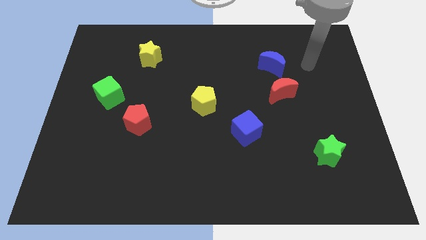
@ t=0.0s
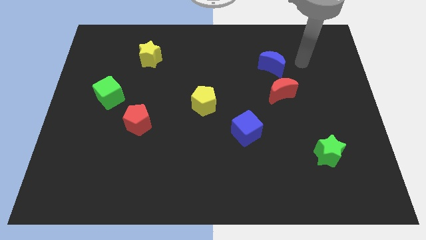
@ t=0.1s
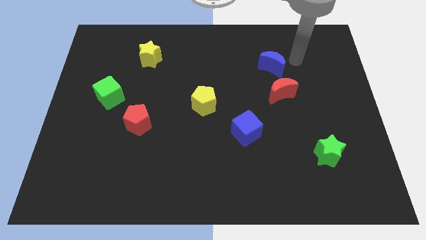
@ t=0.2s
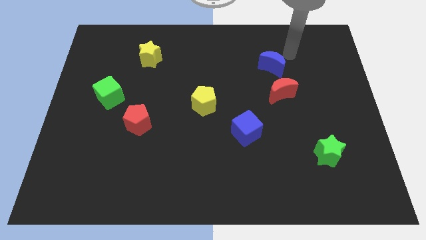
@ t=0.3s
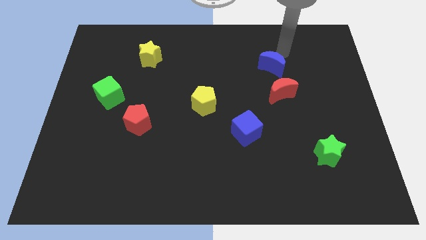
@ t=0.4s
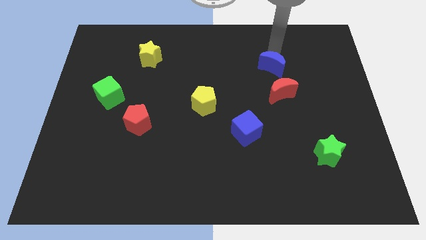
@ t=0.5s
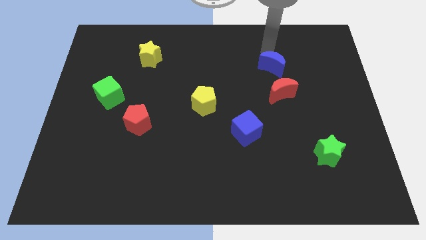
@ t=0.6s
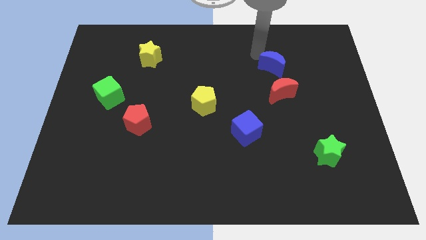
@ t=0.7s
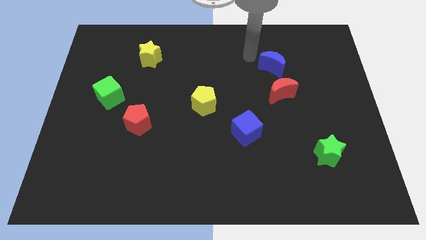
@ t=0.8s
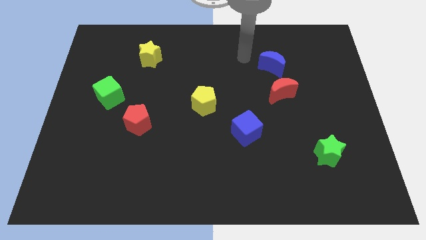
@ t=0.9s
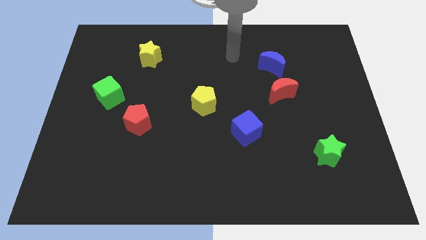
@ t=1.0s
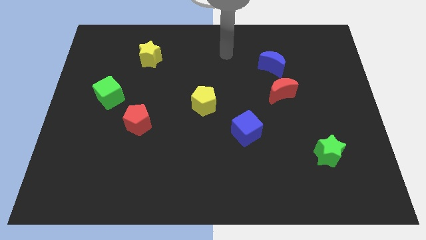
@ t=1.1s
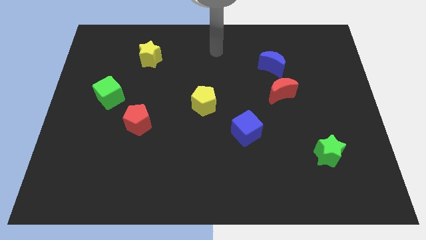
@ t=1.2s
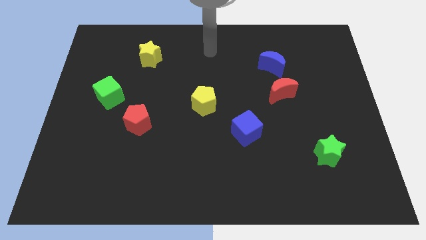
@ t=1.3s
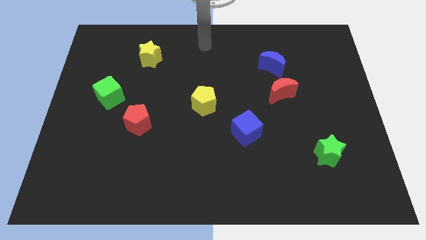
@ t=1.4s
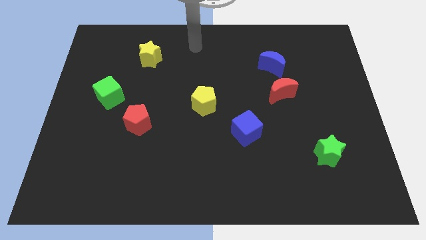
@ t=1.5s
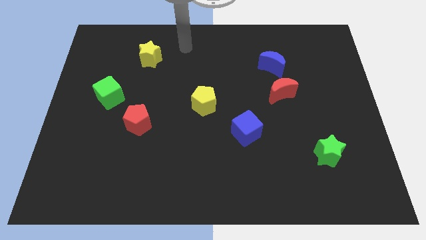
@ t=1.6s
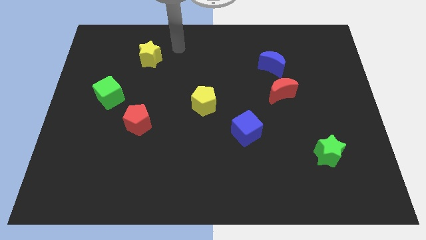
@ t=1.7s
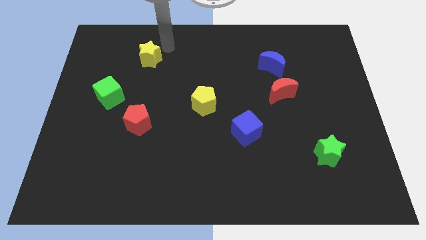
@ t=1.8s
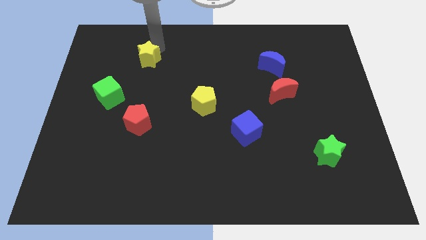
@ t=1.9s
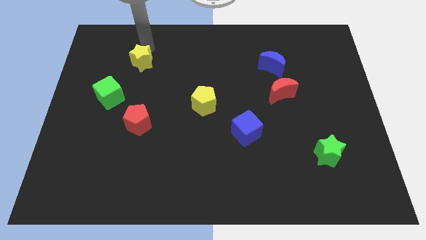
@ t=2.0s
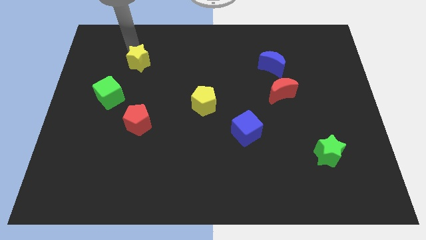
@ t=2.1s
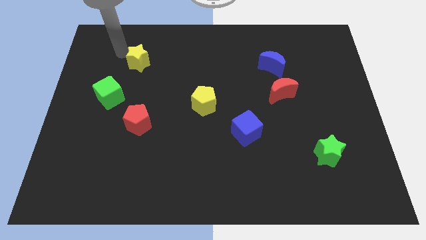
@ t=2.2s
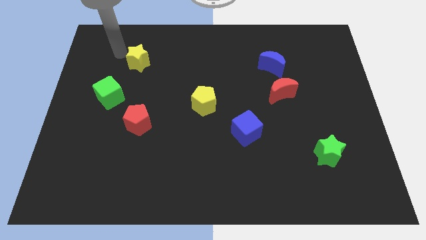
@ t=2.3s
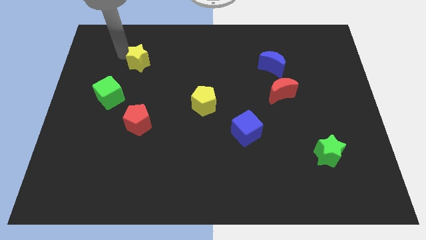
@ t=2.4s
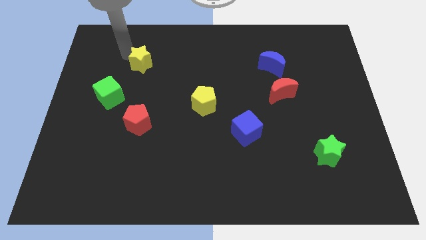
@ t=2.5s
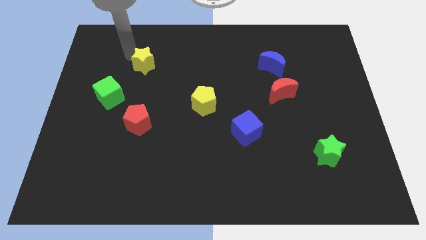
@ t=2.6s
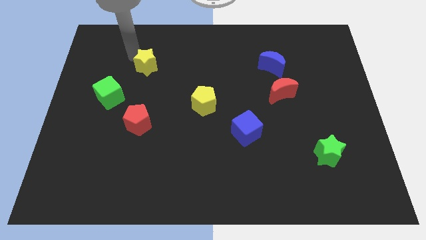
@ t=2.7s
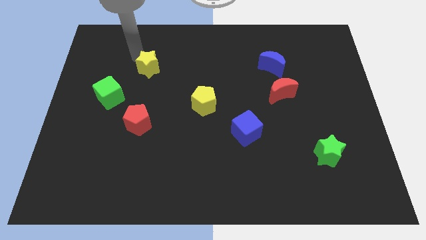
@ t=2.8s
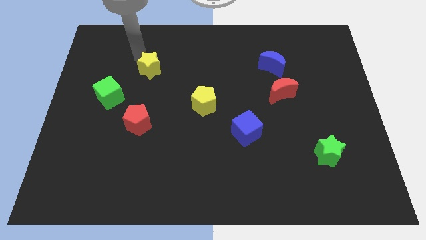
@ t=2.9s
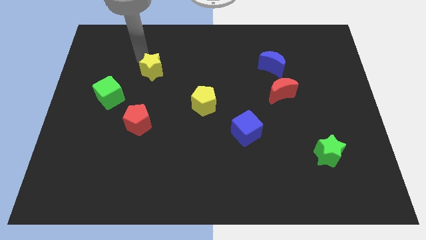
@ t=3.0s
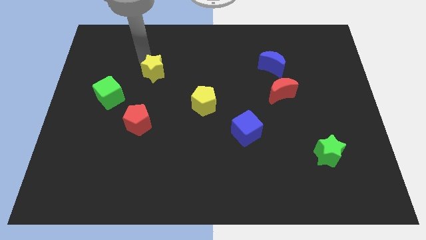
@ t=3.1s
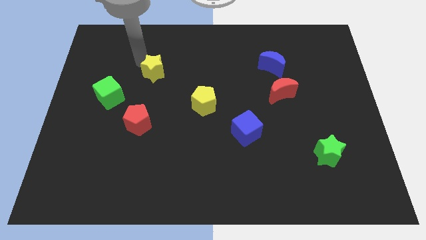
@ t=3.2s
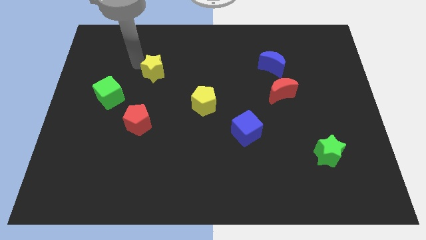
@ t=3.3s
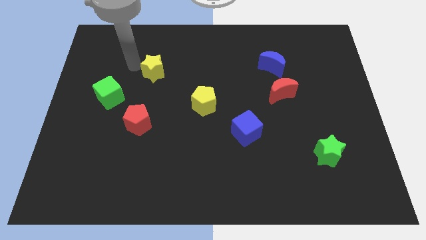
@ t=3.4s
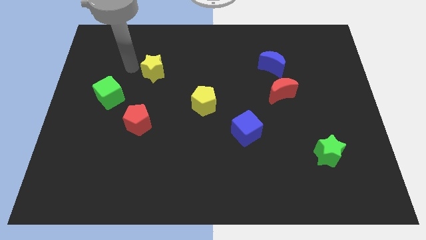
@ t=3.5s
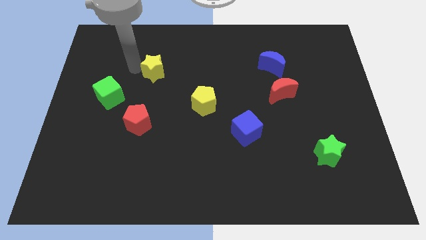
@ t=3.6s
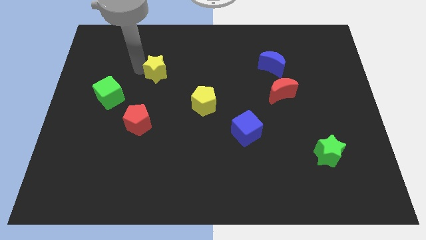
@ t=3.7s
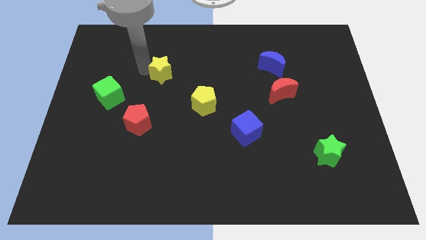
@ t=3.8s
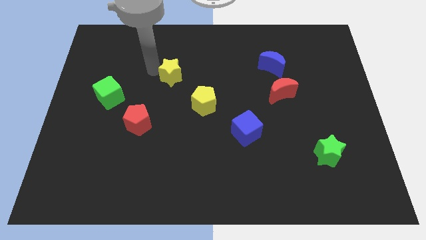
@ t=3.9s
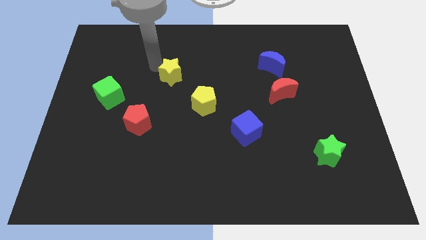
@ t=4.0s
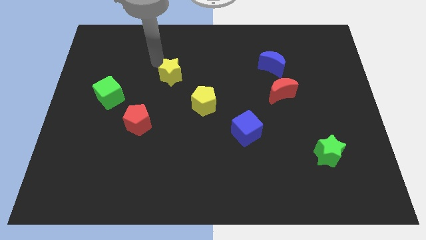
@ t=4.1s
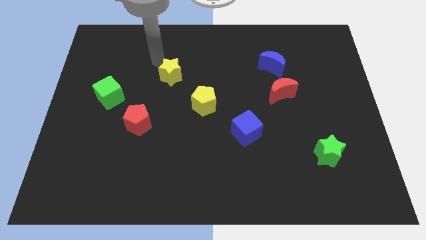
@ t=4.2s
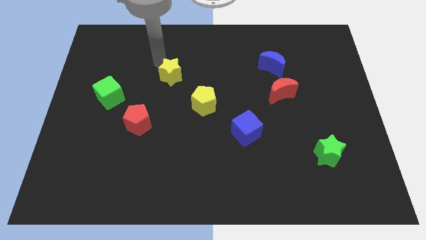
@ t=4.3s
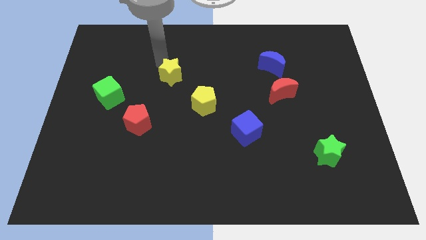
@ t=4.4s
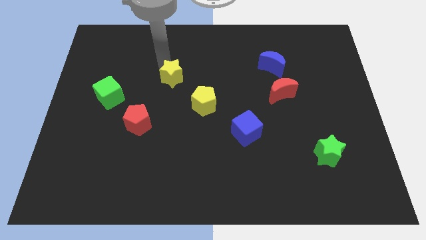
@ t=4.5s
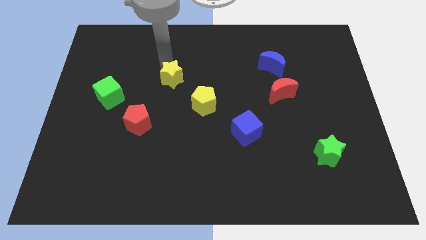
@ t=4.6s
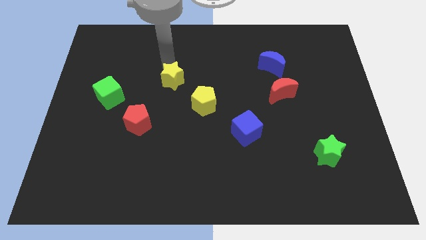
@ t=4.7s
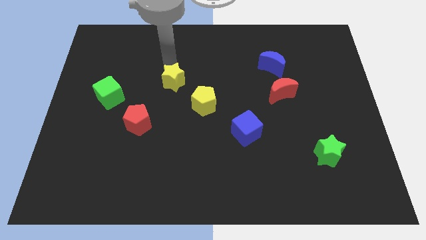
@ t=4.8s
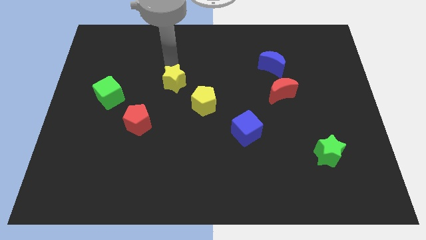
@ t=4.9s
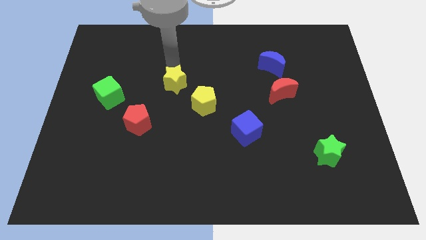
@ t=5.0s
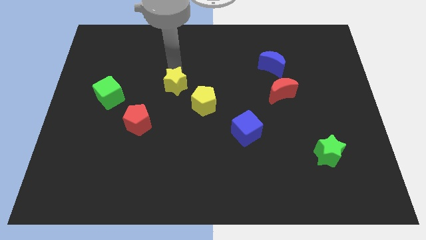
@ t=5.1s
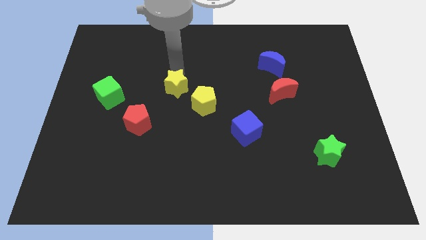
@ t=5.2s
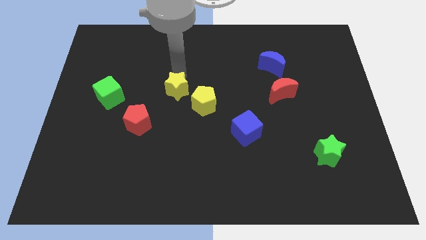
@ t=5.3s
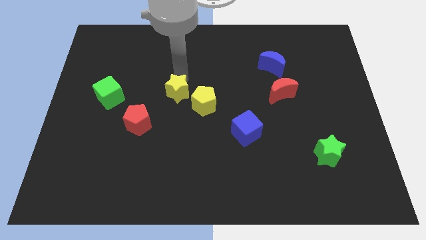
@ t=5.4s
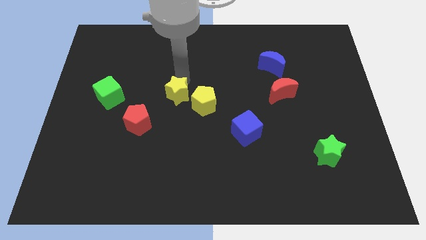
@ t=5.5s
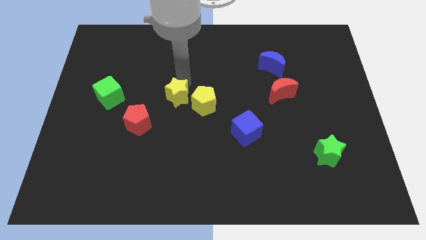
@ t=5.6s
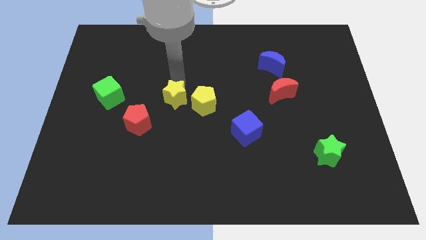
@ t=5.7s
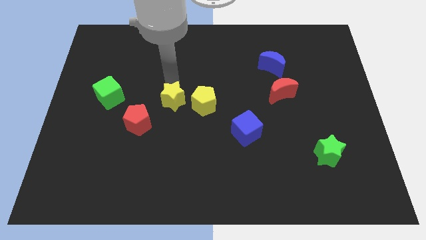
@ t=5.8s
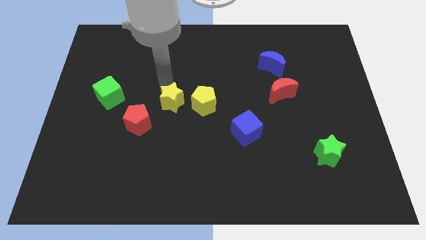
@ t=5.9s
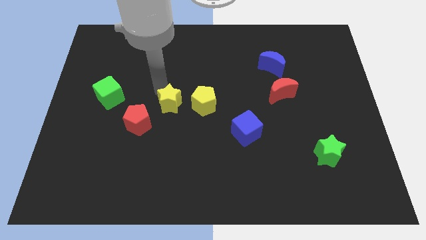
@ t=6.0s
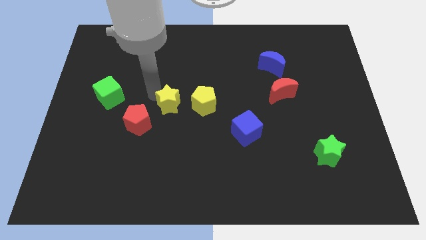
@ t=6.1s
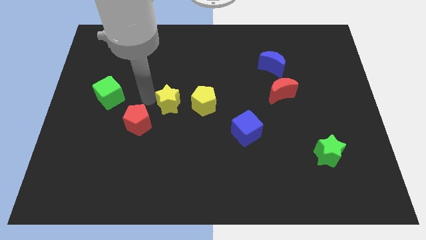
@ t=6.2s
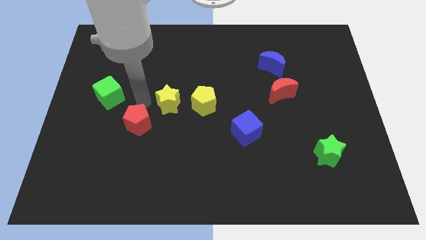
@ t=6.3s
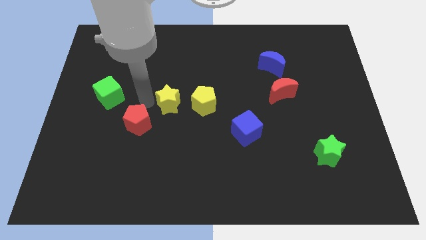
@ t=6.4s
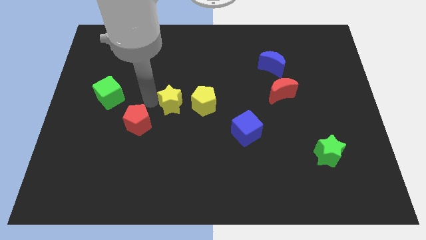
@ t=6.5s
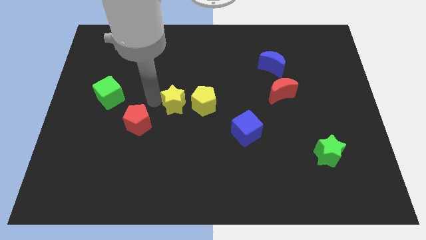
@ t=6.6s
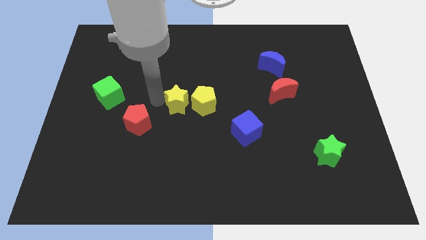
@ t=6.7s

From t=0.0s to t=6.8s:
push the yellow star towards the yellow pentagon
